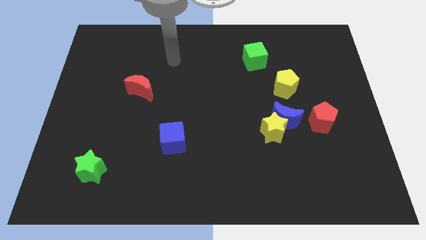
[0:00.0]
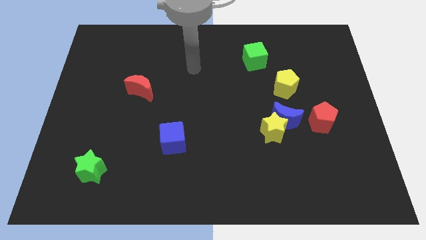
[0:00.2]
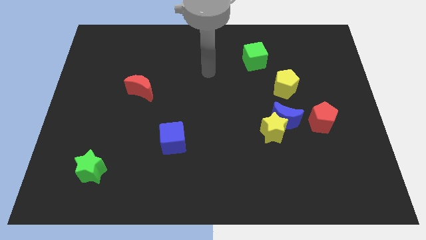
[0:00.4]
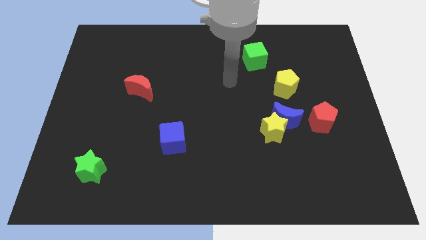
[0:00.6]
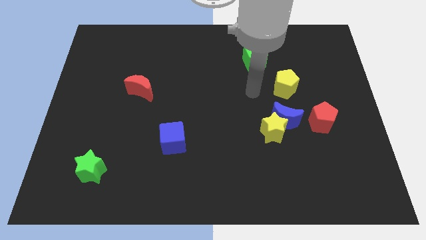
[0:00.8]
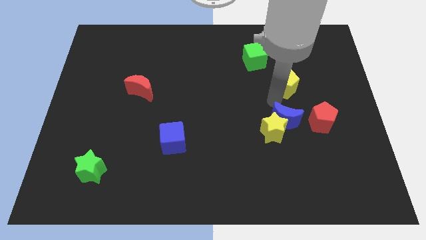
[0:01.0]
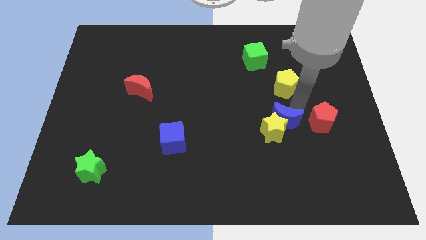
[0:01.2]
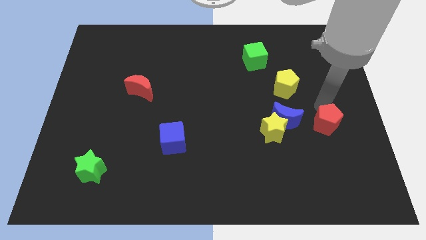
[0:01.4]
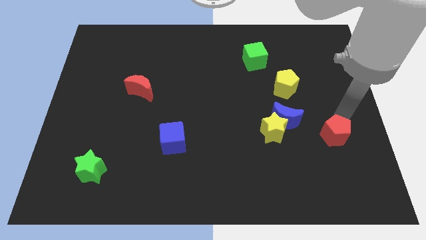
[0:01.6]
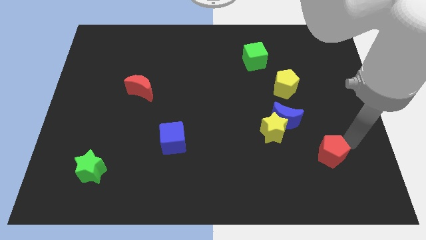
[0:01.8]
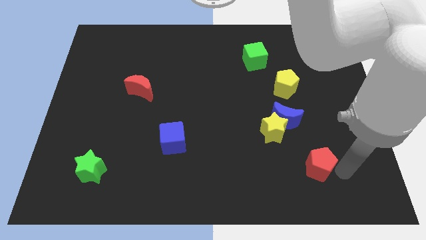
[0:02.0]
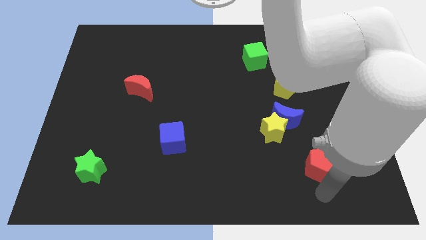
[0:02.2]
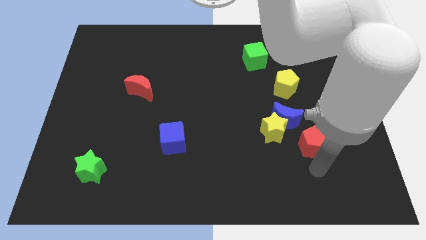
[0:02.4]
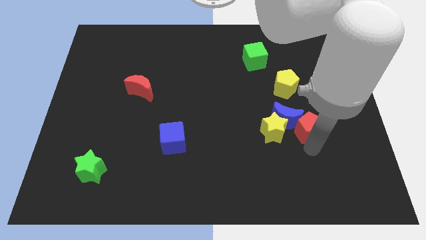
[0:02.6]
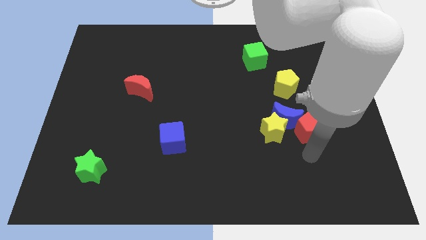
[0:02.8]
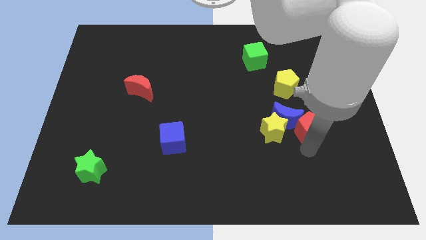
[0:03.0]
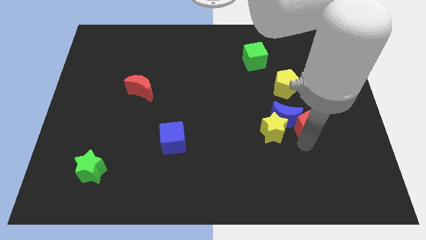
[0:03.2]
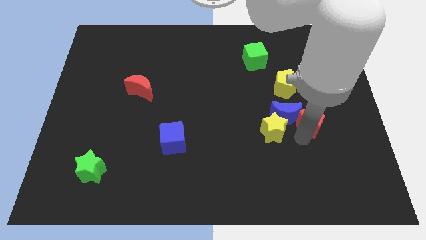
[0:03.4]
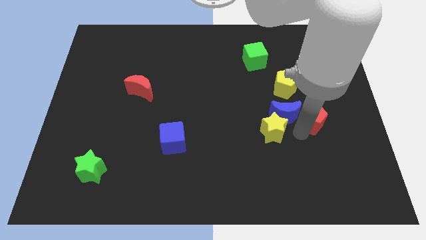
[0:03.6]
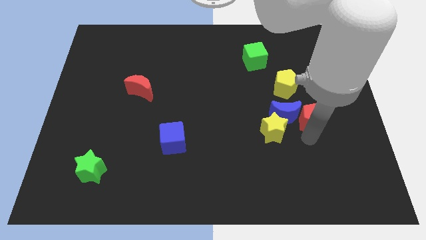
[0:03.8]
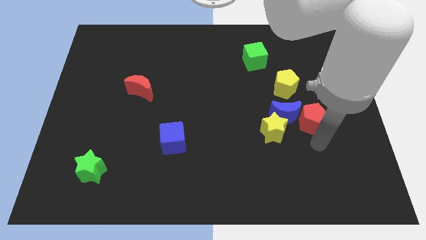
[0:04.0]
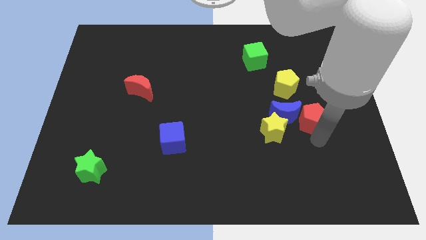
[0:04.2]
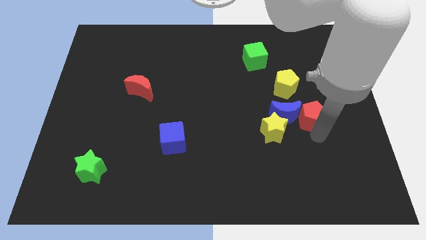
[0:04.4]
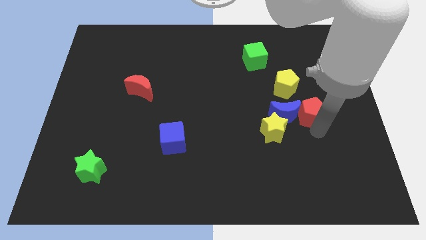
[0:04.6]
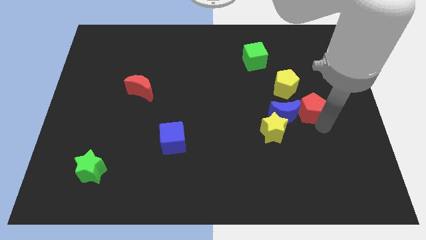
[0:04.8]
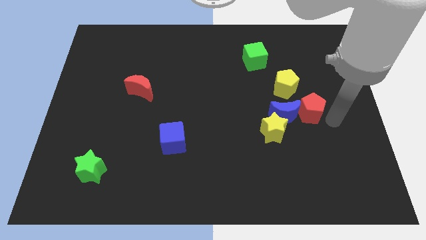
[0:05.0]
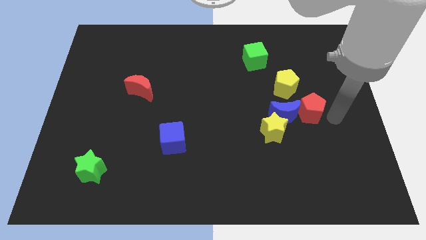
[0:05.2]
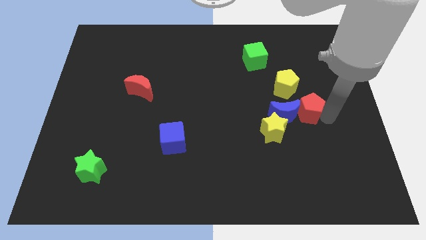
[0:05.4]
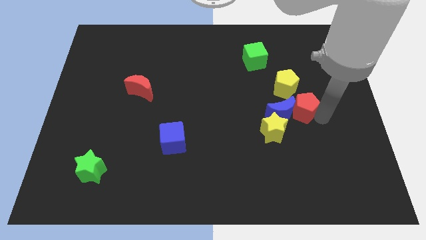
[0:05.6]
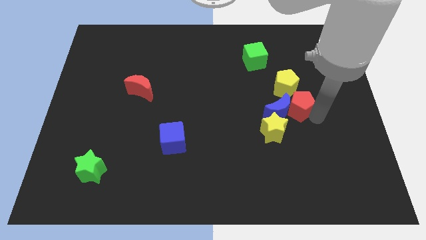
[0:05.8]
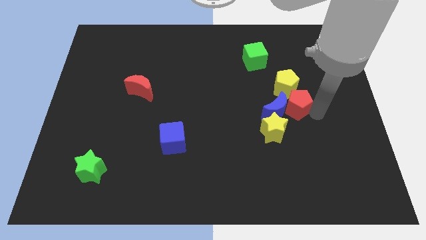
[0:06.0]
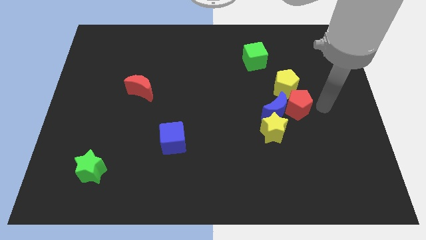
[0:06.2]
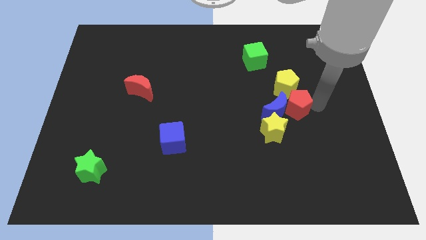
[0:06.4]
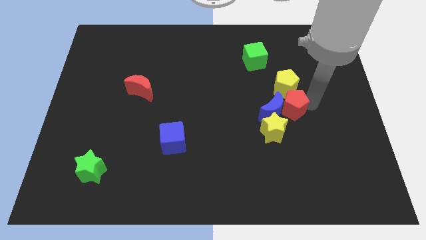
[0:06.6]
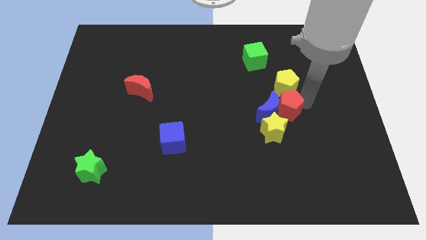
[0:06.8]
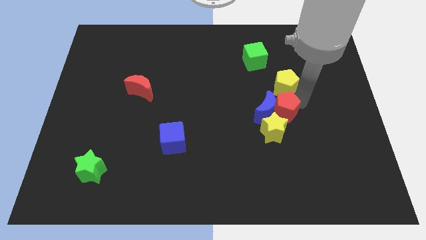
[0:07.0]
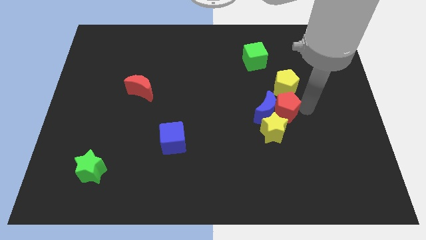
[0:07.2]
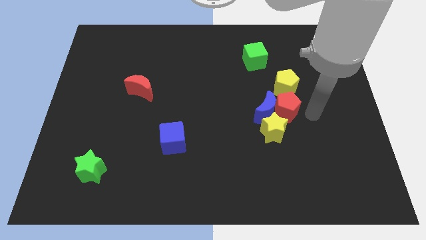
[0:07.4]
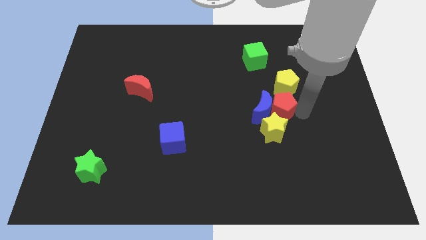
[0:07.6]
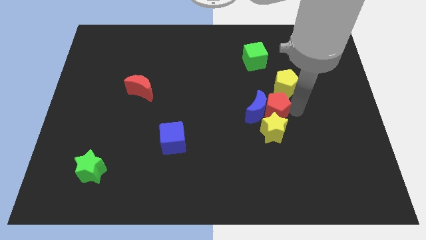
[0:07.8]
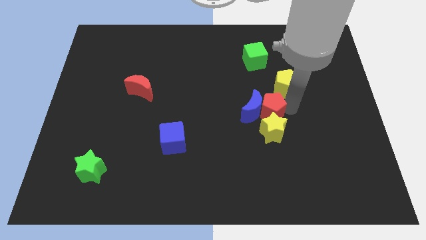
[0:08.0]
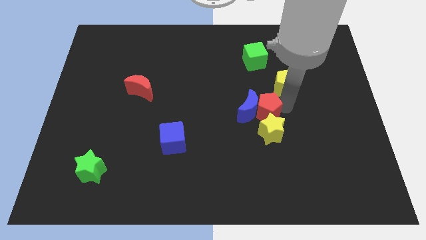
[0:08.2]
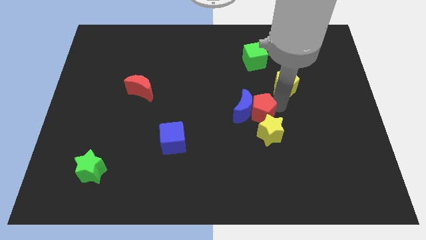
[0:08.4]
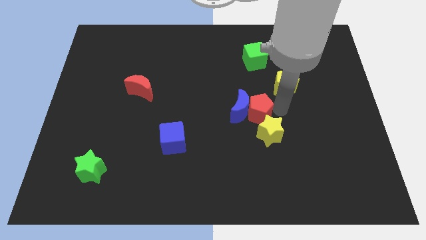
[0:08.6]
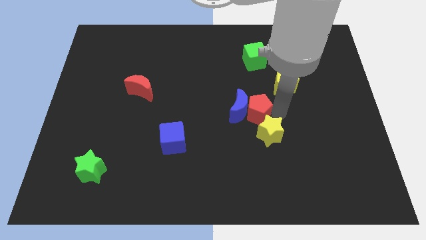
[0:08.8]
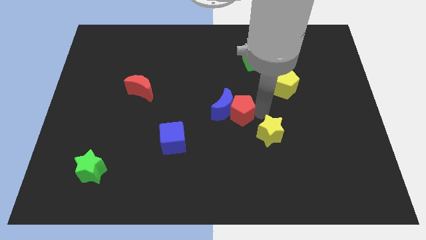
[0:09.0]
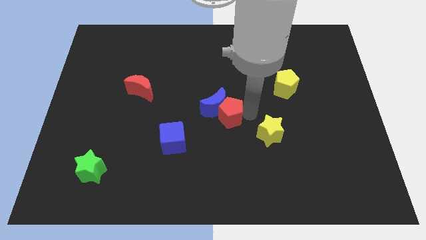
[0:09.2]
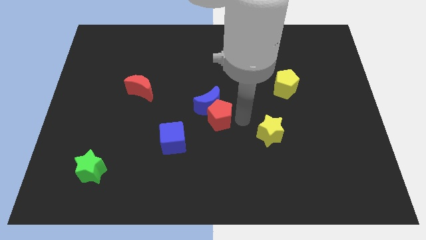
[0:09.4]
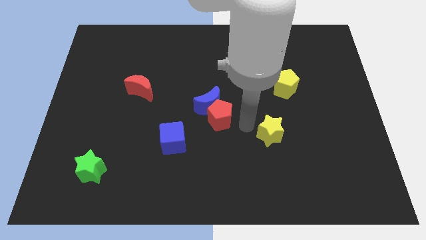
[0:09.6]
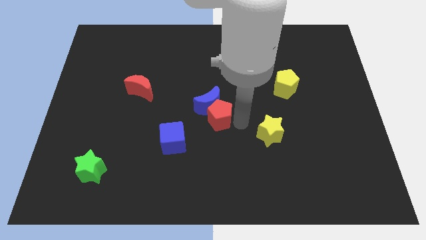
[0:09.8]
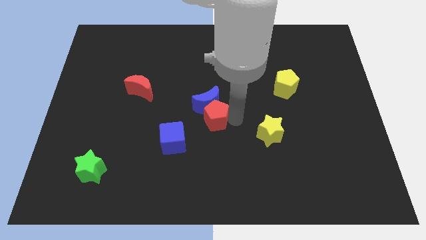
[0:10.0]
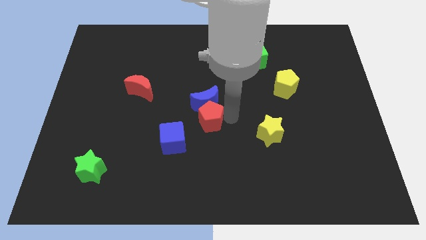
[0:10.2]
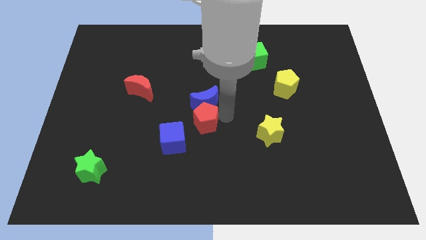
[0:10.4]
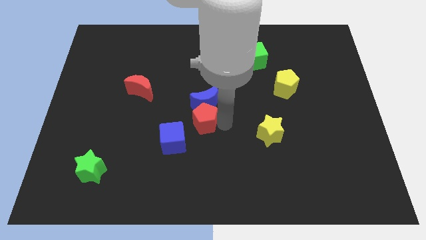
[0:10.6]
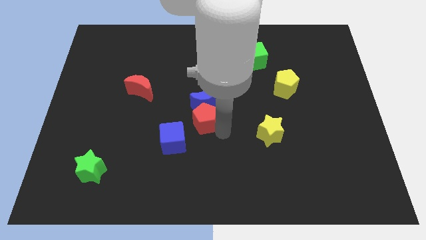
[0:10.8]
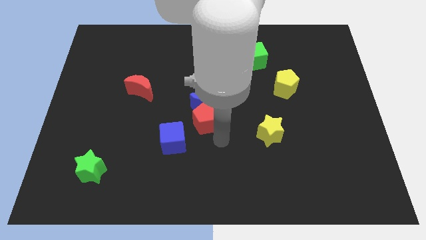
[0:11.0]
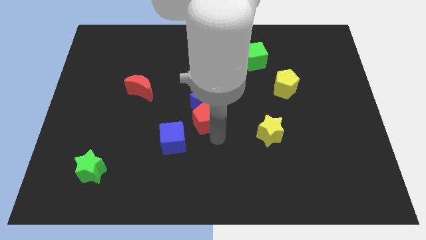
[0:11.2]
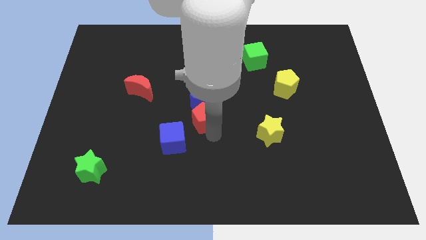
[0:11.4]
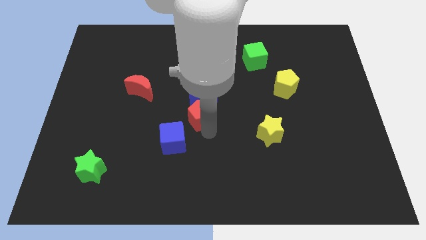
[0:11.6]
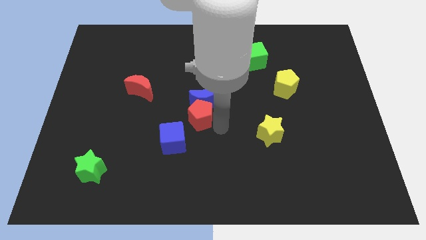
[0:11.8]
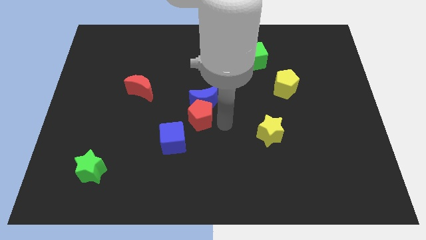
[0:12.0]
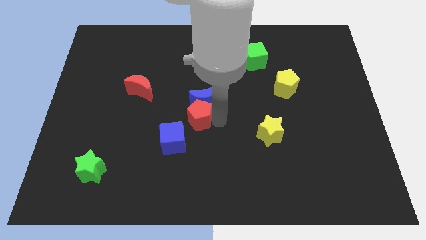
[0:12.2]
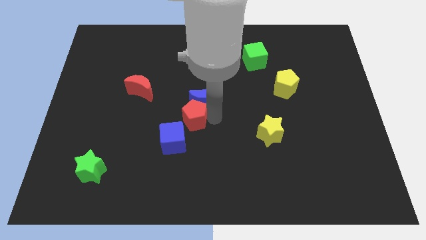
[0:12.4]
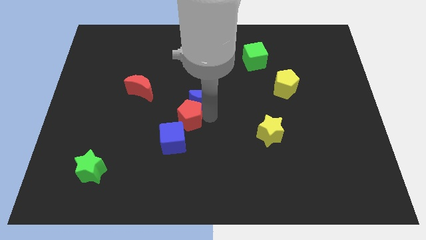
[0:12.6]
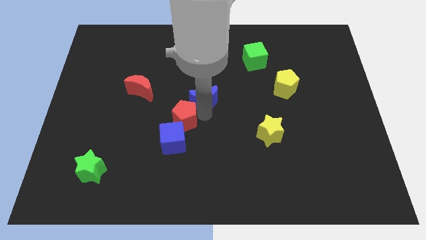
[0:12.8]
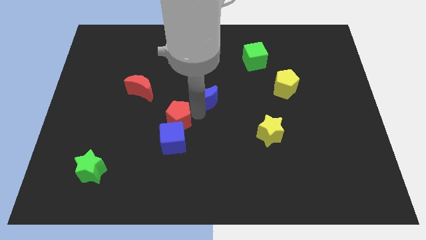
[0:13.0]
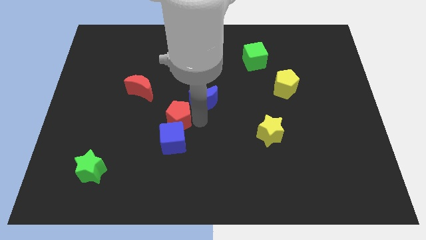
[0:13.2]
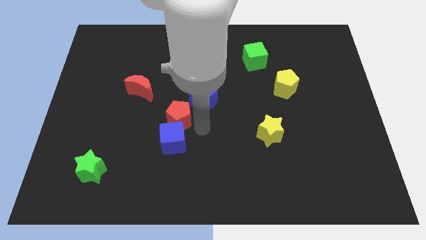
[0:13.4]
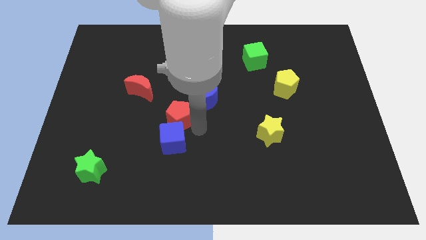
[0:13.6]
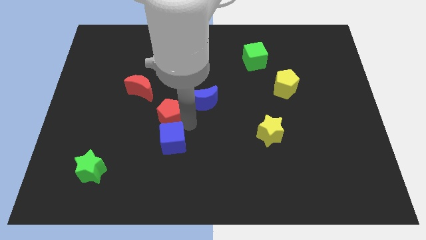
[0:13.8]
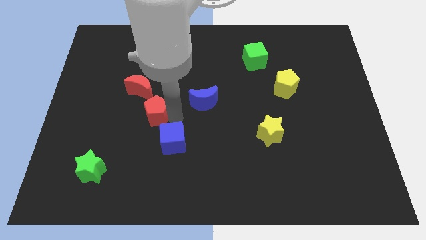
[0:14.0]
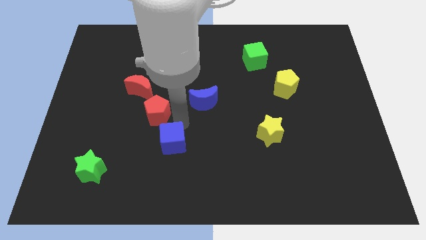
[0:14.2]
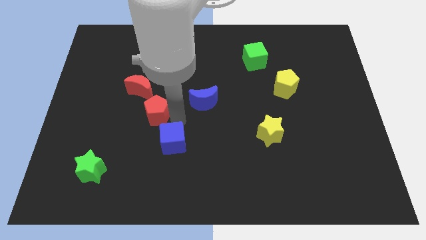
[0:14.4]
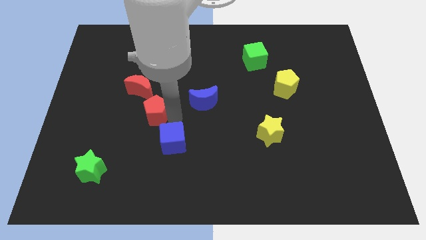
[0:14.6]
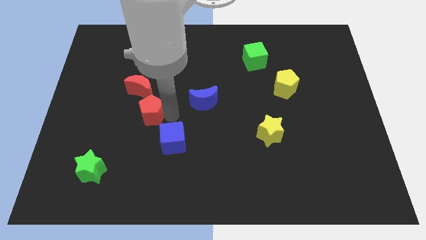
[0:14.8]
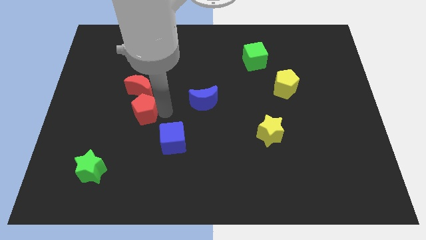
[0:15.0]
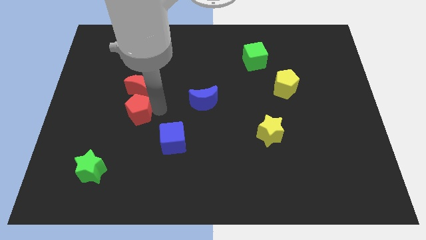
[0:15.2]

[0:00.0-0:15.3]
move the red pentagon to the bottom left side of the red moon
